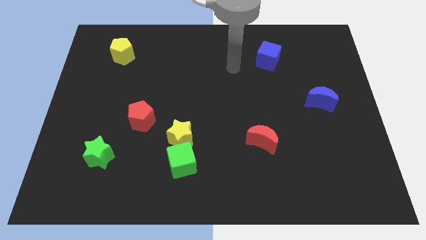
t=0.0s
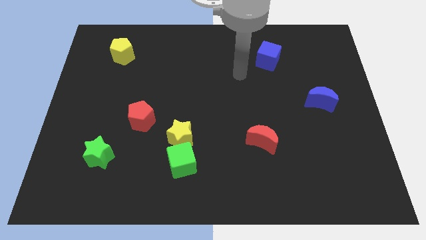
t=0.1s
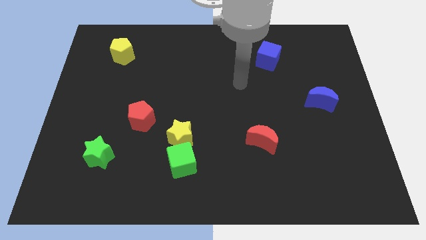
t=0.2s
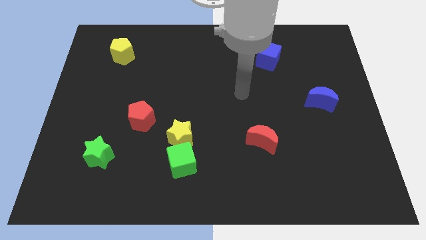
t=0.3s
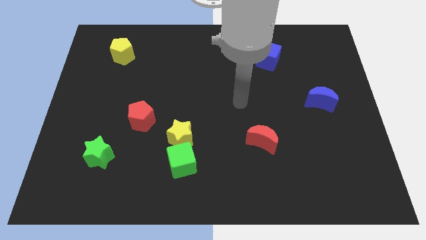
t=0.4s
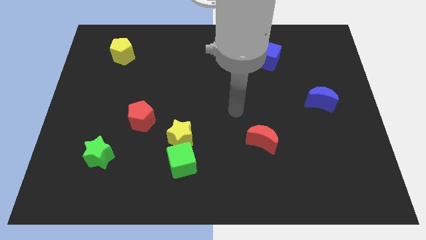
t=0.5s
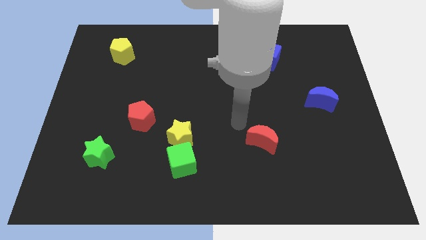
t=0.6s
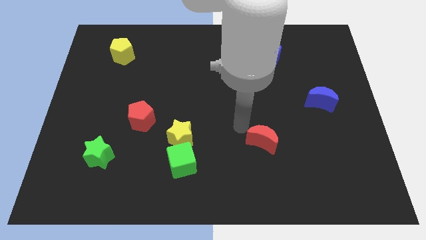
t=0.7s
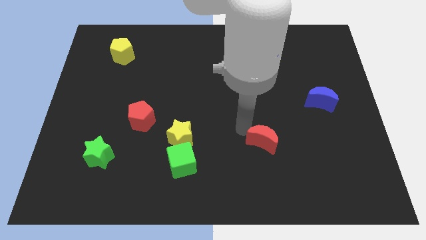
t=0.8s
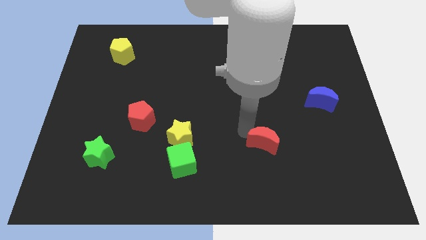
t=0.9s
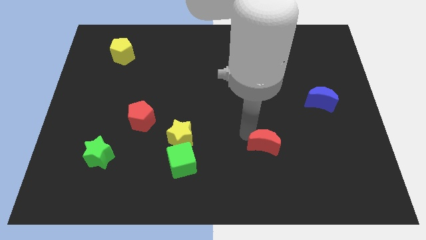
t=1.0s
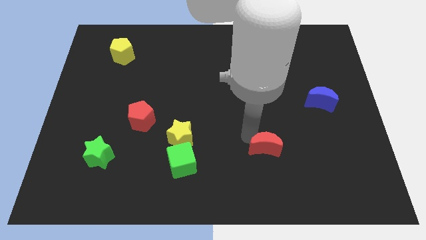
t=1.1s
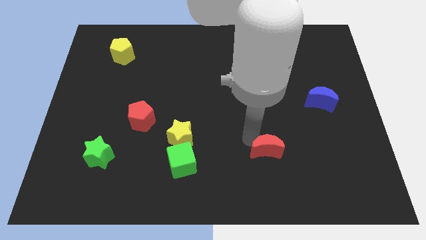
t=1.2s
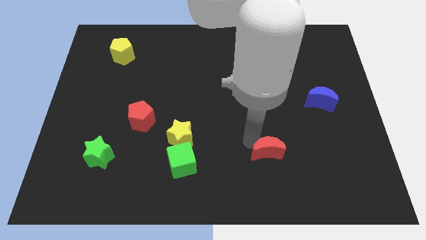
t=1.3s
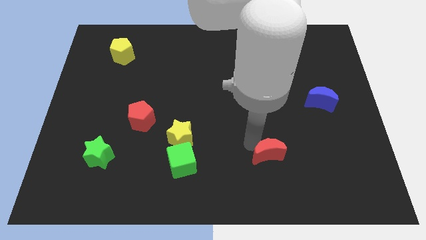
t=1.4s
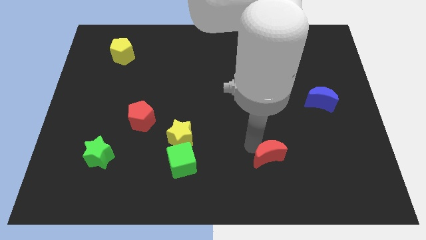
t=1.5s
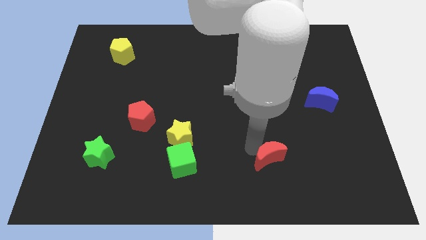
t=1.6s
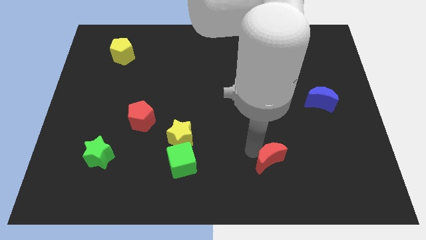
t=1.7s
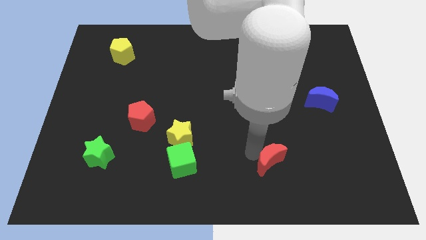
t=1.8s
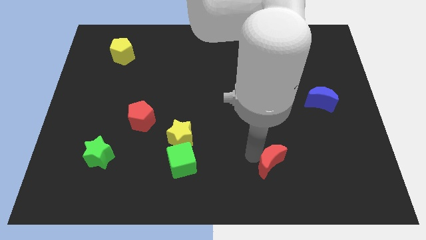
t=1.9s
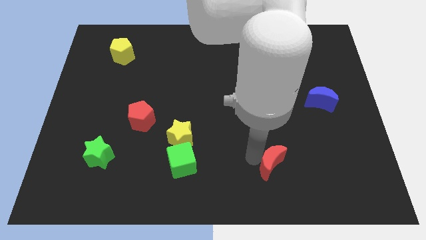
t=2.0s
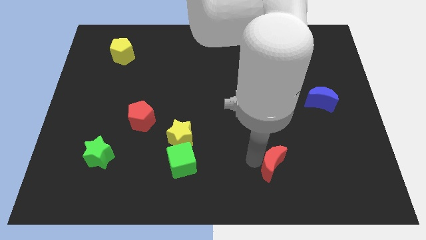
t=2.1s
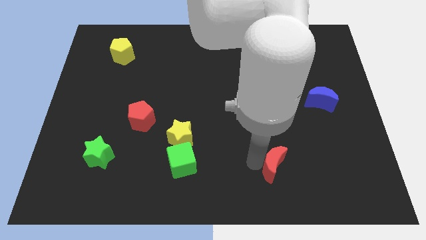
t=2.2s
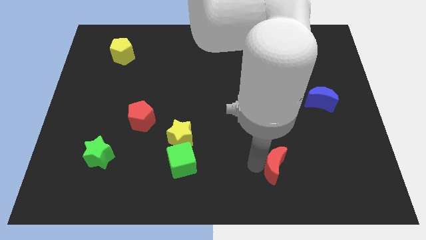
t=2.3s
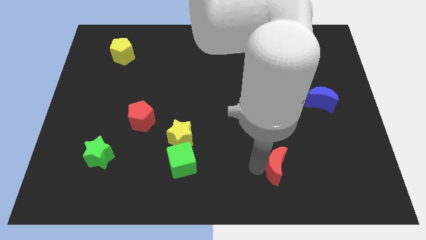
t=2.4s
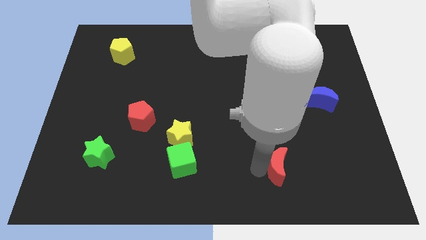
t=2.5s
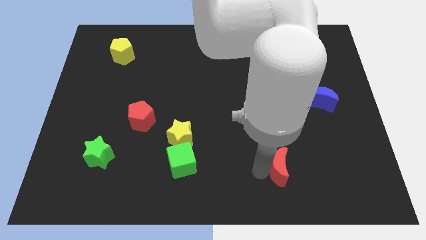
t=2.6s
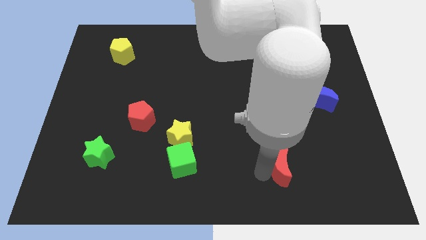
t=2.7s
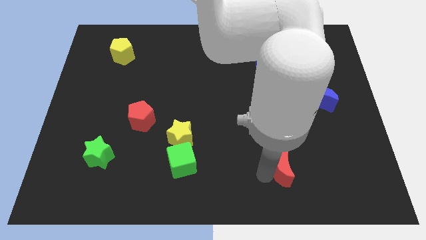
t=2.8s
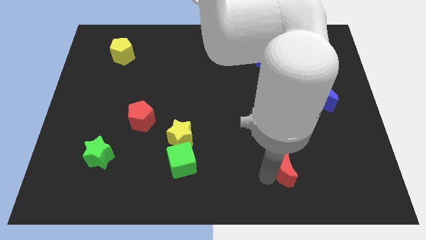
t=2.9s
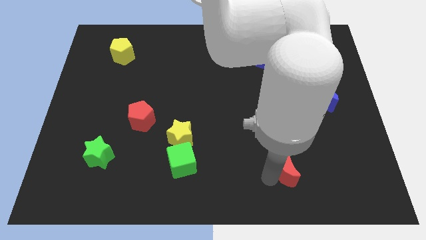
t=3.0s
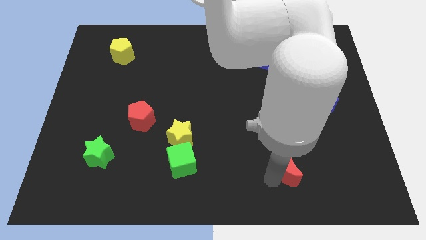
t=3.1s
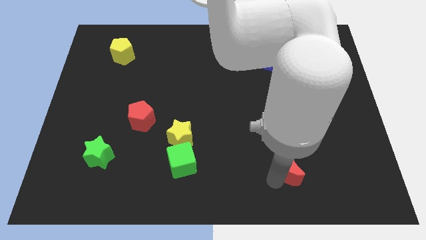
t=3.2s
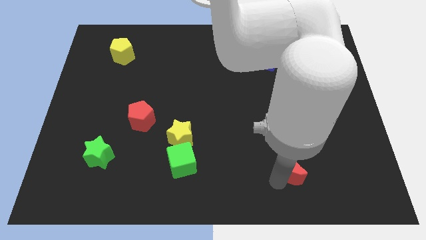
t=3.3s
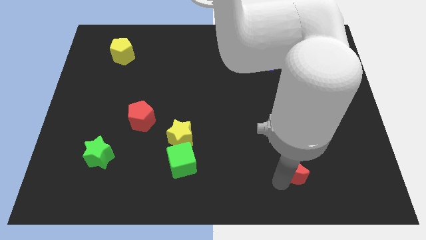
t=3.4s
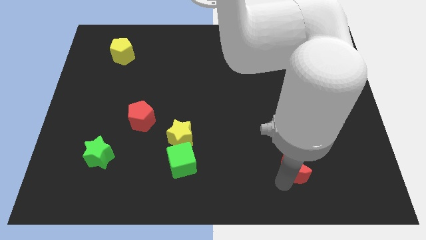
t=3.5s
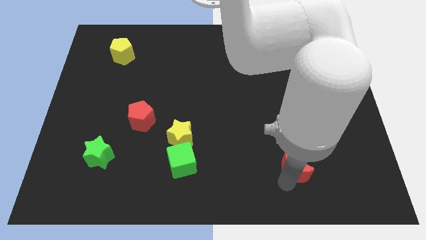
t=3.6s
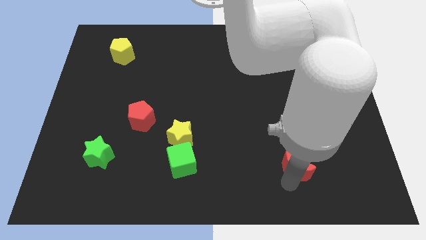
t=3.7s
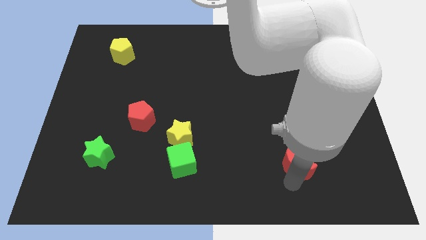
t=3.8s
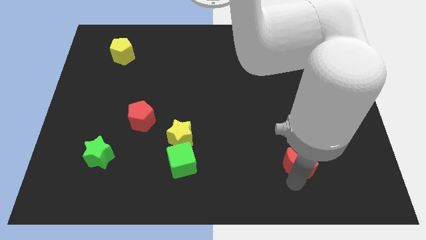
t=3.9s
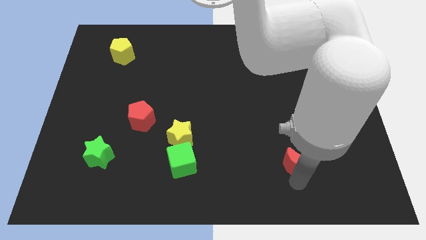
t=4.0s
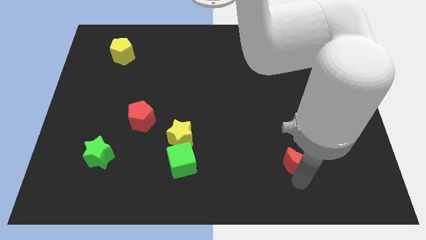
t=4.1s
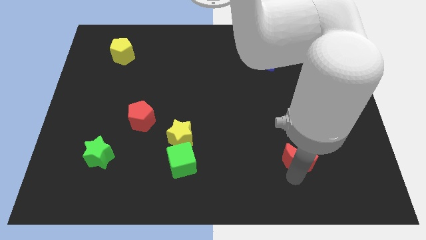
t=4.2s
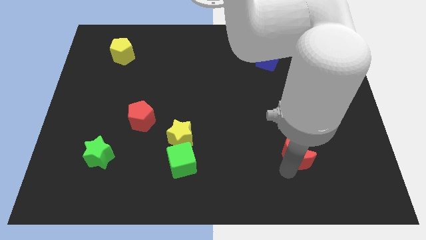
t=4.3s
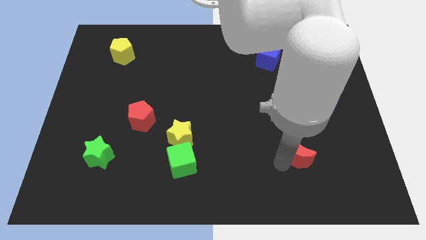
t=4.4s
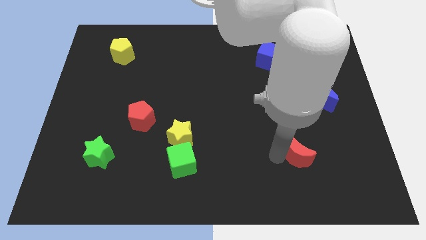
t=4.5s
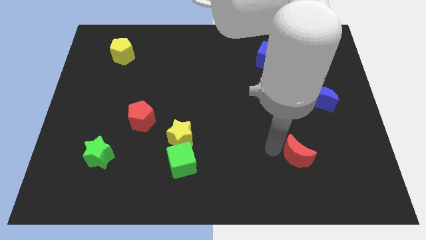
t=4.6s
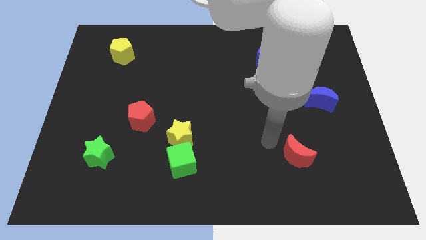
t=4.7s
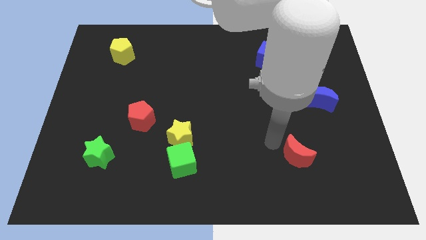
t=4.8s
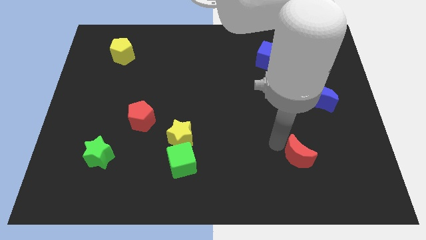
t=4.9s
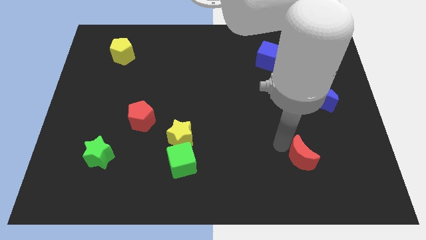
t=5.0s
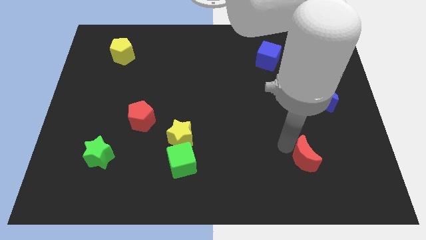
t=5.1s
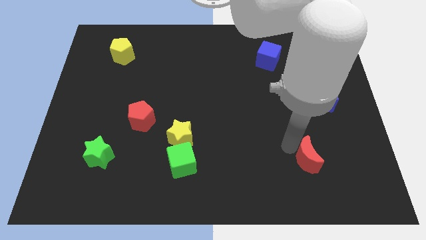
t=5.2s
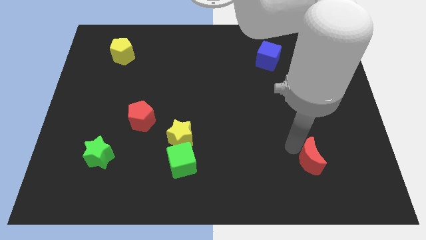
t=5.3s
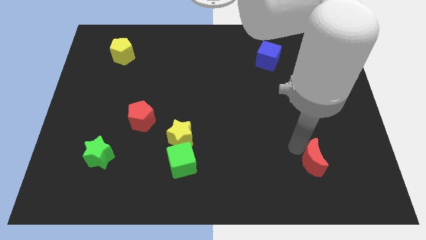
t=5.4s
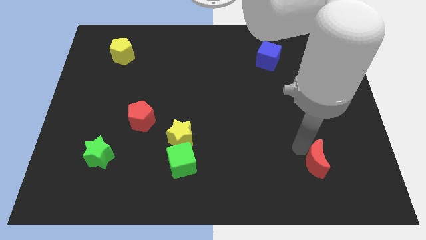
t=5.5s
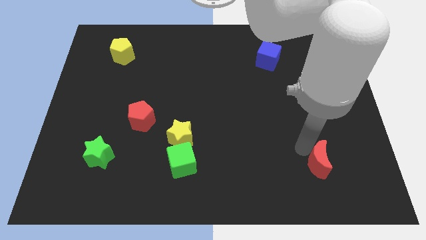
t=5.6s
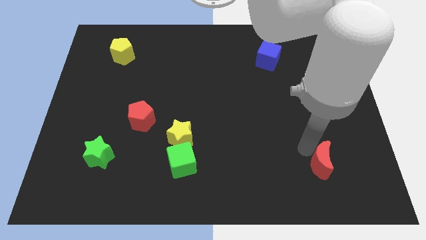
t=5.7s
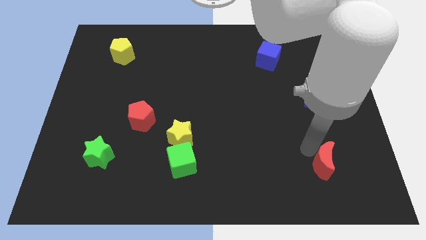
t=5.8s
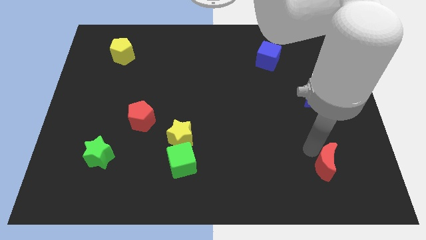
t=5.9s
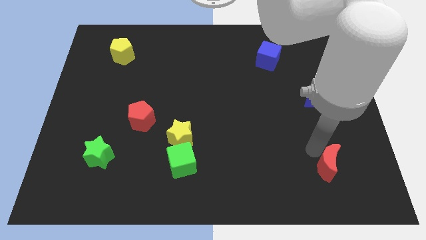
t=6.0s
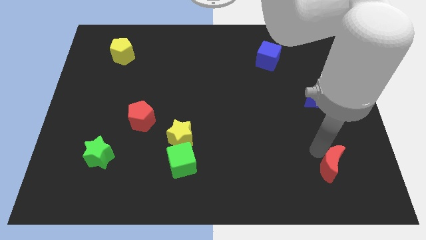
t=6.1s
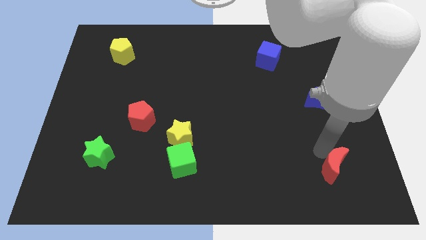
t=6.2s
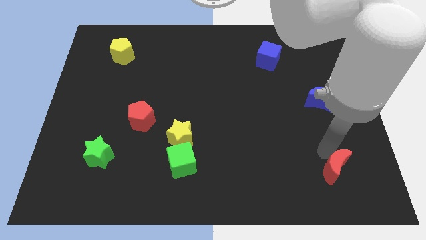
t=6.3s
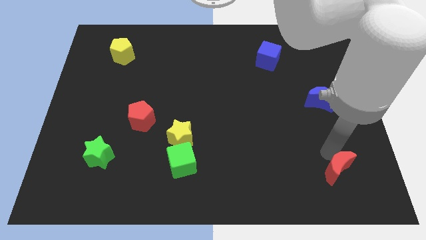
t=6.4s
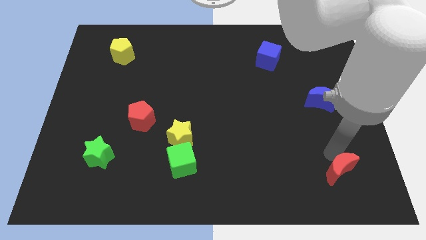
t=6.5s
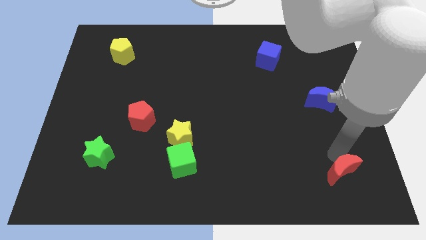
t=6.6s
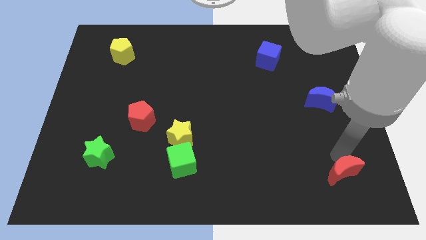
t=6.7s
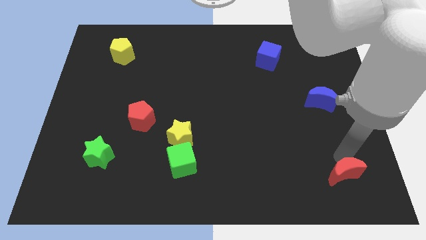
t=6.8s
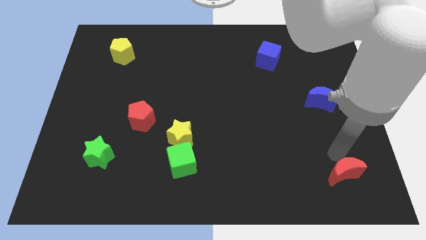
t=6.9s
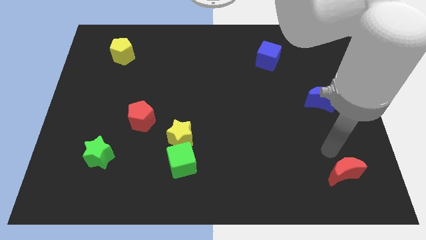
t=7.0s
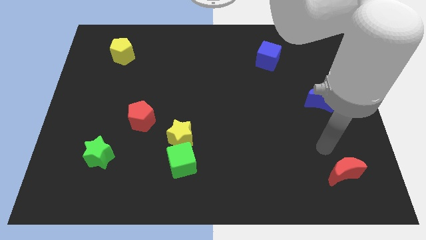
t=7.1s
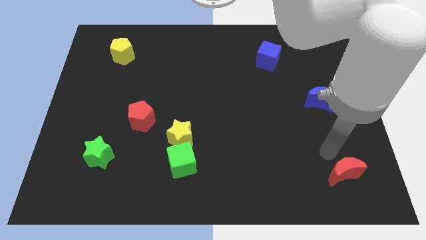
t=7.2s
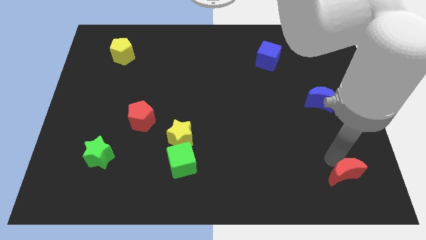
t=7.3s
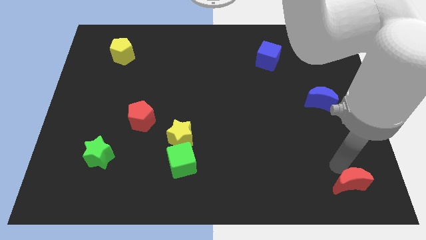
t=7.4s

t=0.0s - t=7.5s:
put the red moon to the lower right corner
